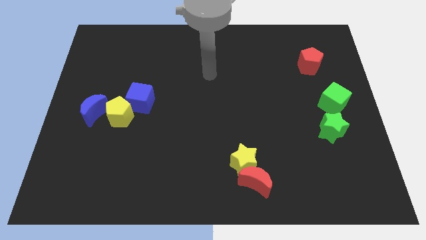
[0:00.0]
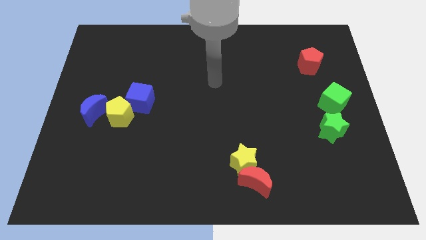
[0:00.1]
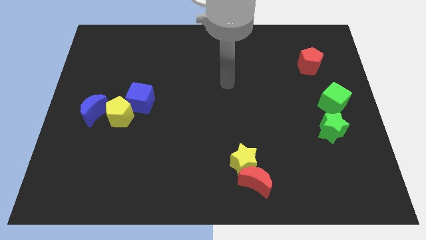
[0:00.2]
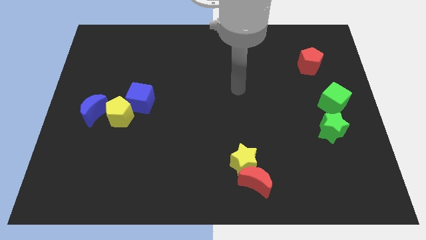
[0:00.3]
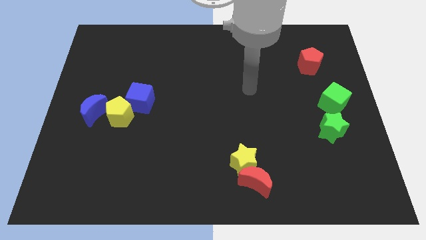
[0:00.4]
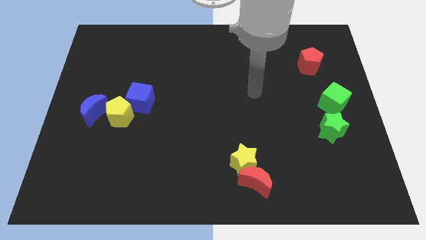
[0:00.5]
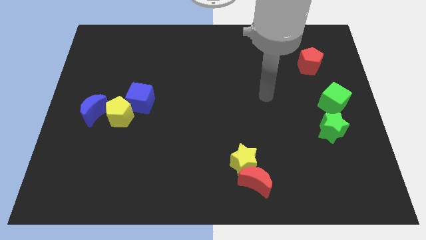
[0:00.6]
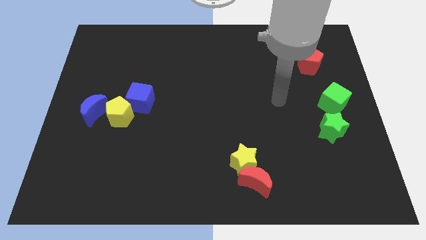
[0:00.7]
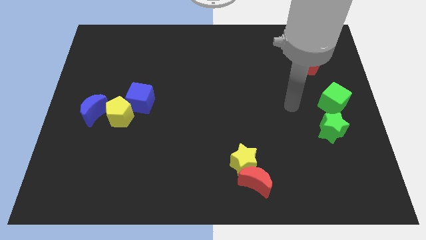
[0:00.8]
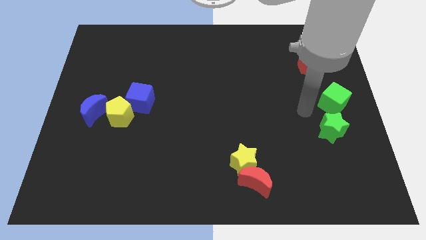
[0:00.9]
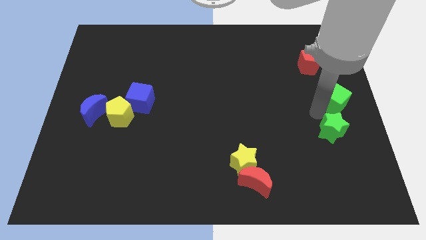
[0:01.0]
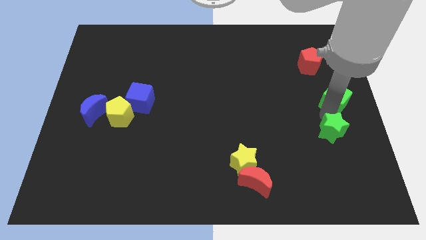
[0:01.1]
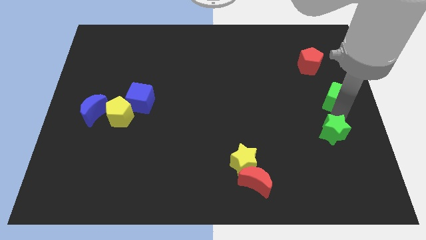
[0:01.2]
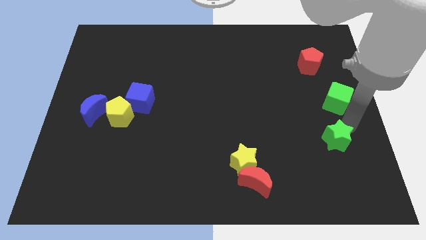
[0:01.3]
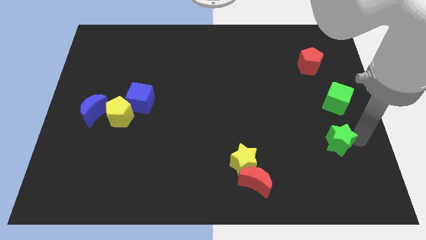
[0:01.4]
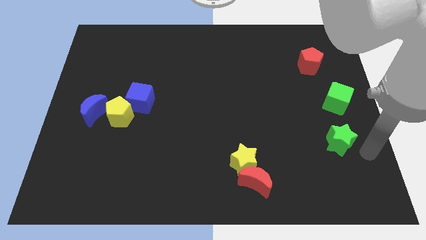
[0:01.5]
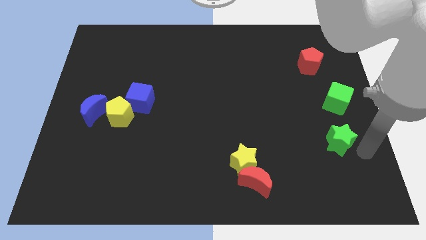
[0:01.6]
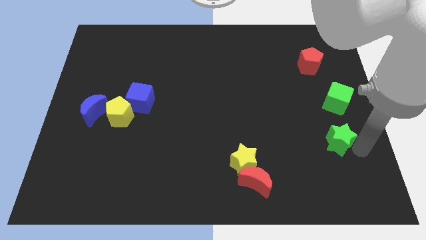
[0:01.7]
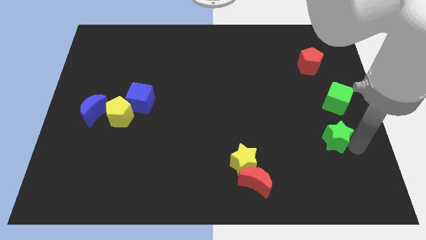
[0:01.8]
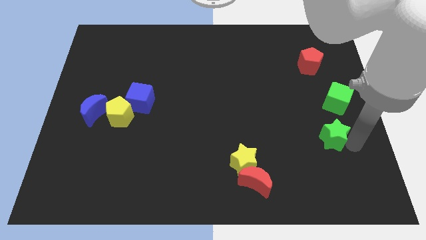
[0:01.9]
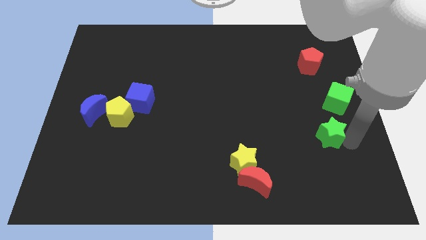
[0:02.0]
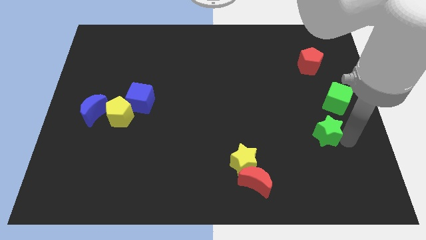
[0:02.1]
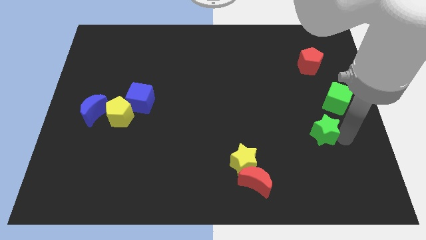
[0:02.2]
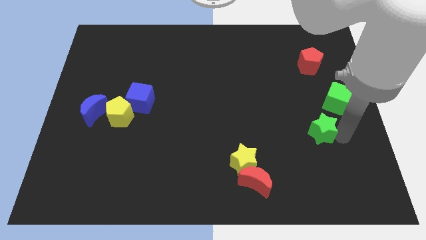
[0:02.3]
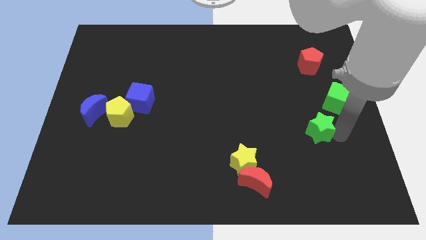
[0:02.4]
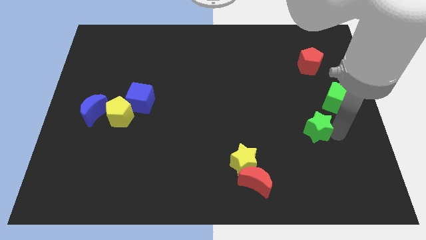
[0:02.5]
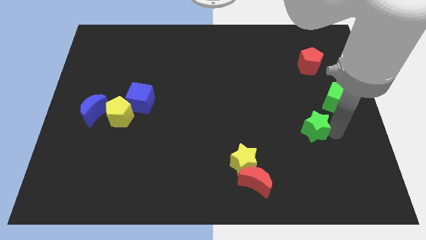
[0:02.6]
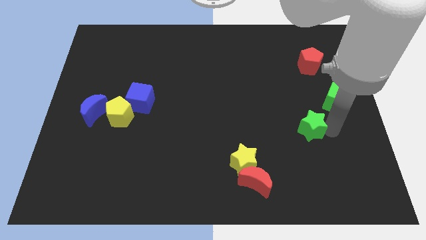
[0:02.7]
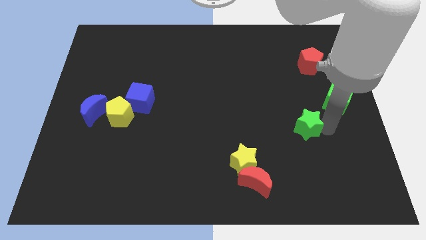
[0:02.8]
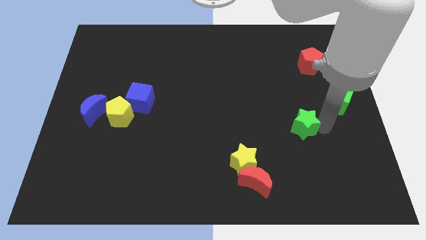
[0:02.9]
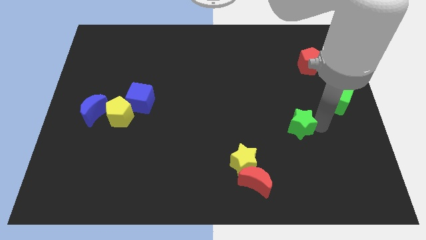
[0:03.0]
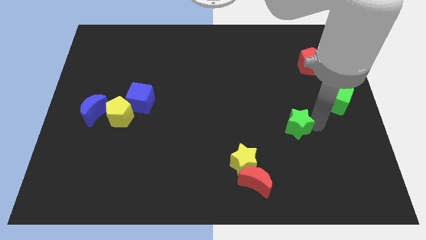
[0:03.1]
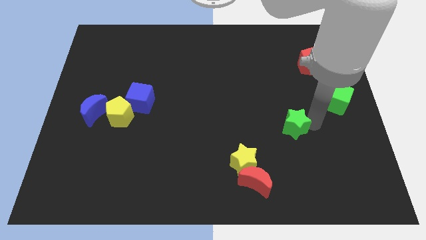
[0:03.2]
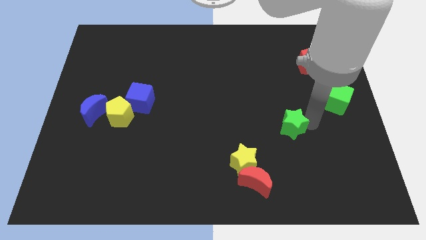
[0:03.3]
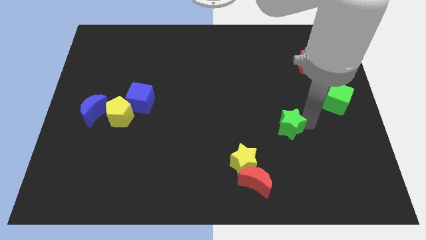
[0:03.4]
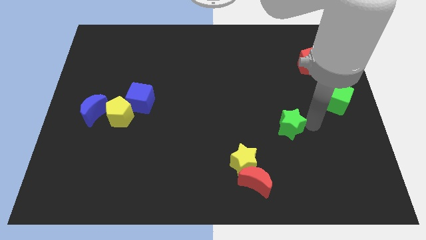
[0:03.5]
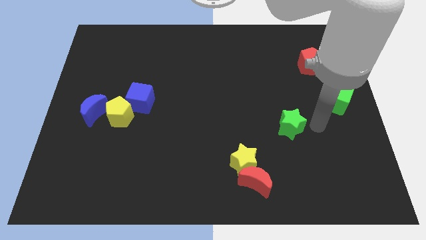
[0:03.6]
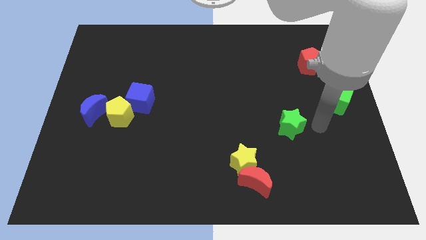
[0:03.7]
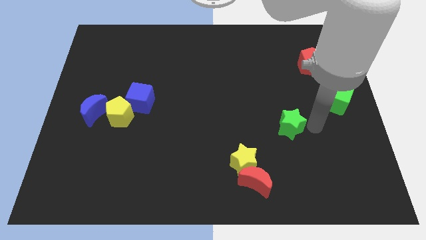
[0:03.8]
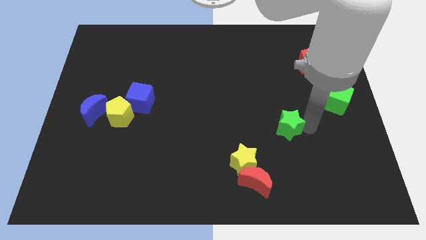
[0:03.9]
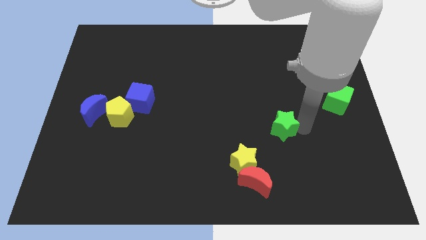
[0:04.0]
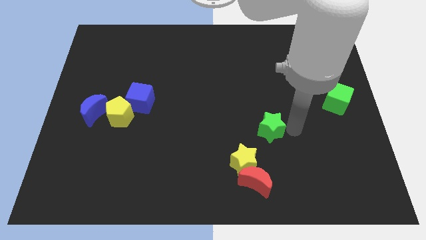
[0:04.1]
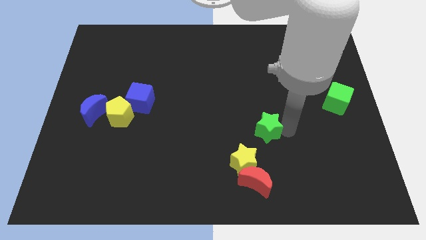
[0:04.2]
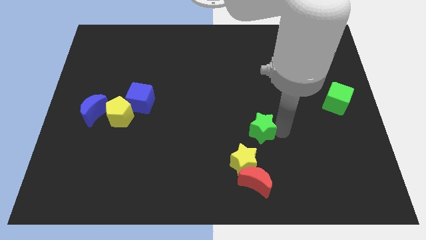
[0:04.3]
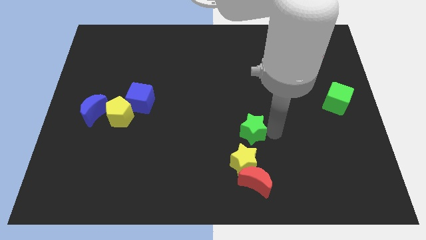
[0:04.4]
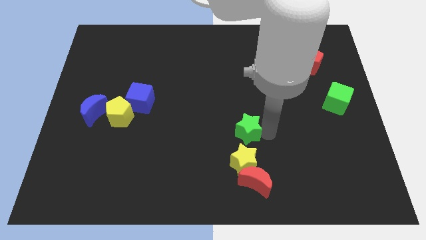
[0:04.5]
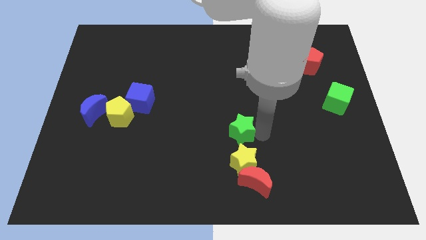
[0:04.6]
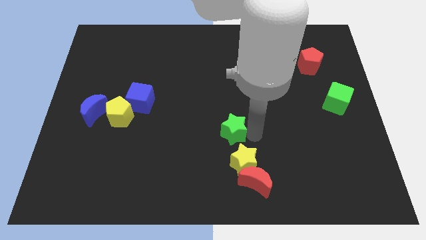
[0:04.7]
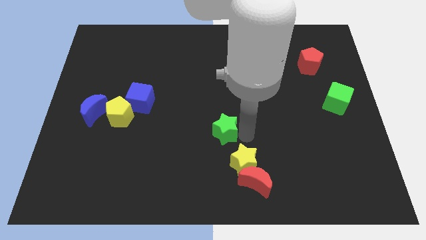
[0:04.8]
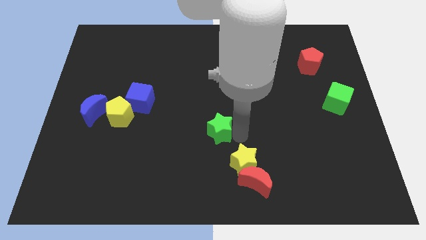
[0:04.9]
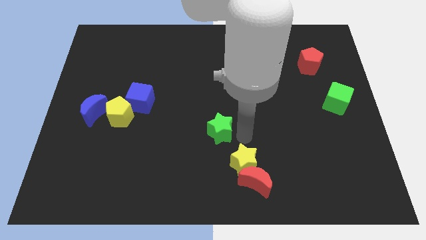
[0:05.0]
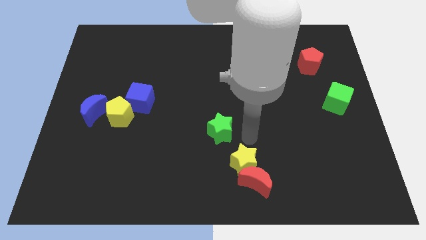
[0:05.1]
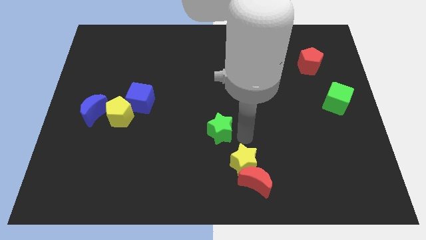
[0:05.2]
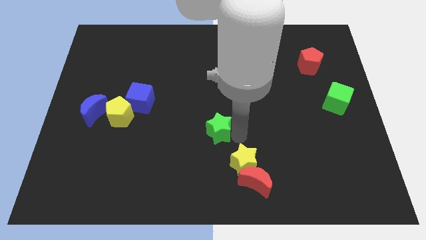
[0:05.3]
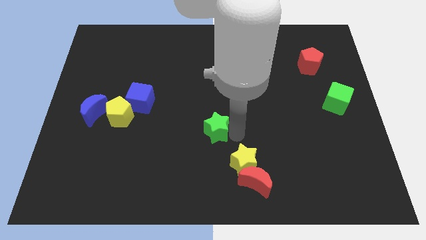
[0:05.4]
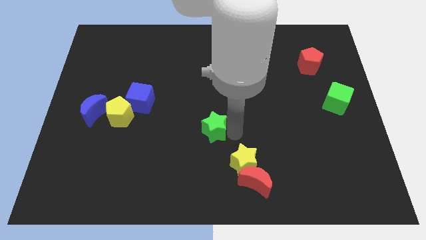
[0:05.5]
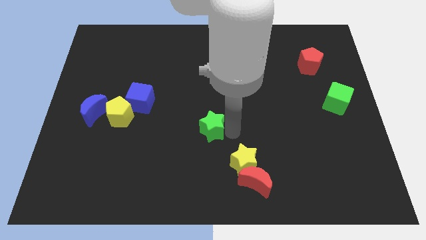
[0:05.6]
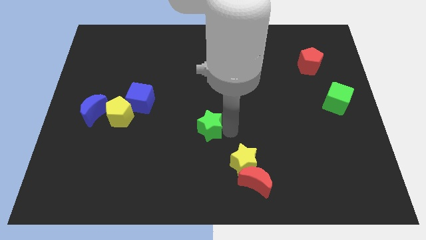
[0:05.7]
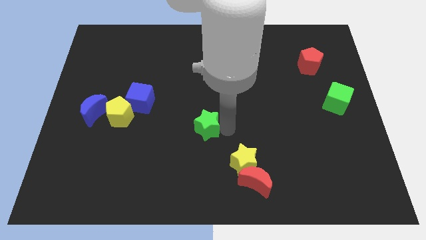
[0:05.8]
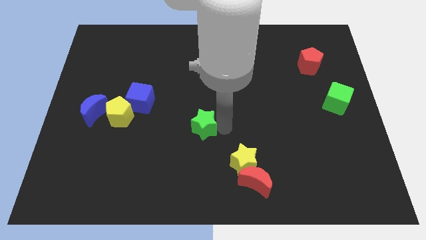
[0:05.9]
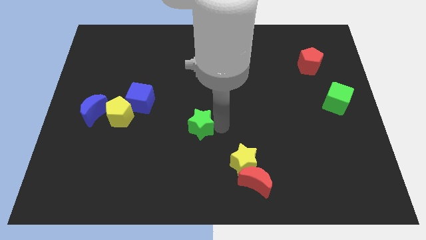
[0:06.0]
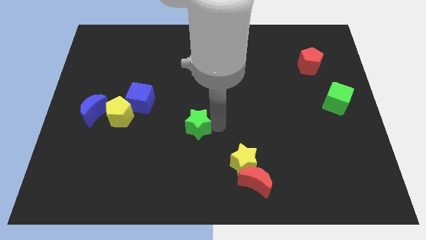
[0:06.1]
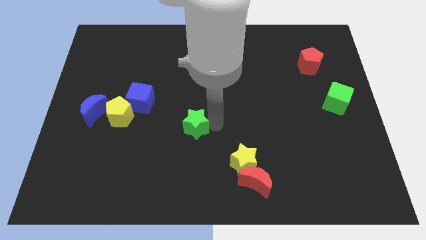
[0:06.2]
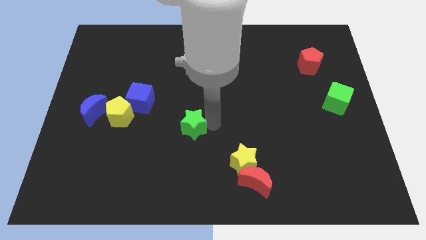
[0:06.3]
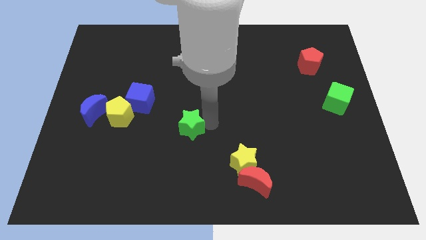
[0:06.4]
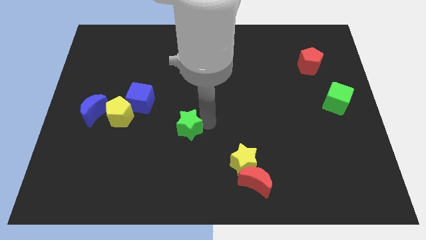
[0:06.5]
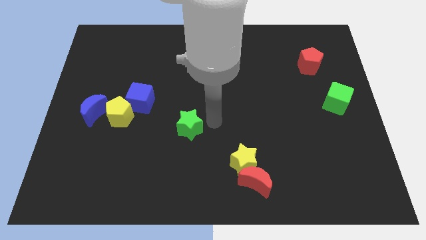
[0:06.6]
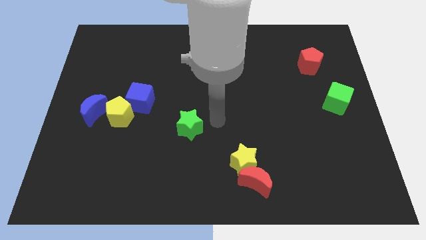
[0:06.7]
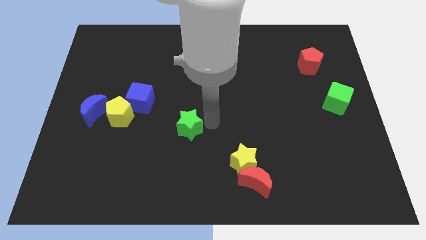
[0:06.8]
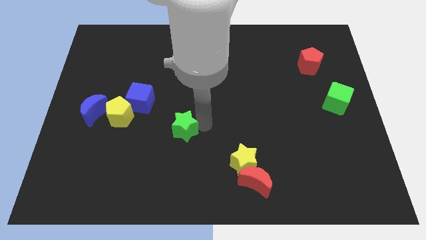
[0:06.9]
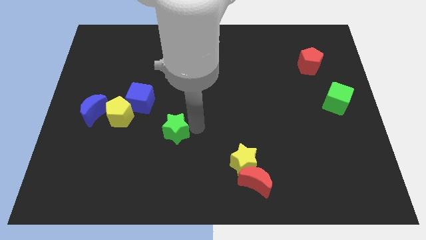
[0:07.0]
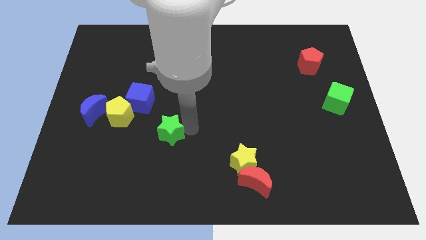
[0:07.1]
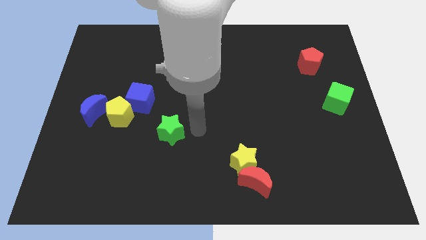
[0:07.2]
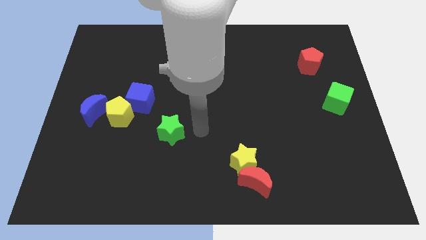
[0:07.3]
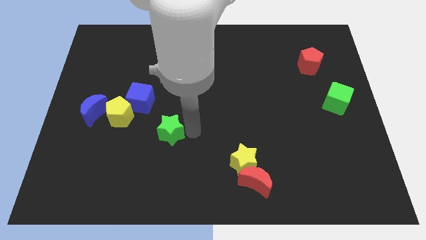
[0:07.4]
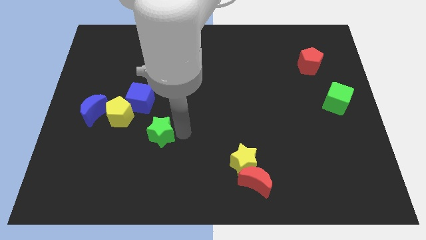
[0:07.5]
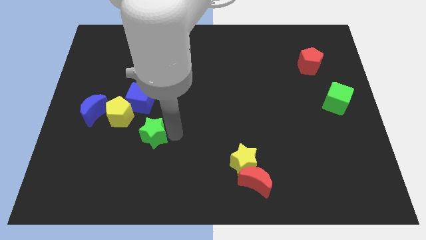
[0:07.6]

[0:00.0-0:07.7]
put the green star to the bottom side of the blue cube
